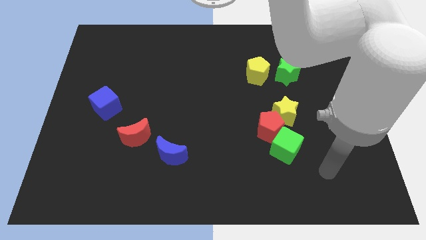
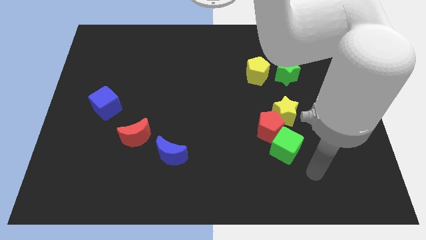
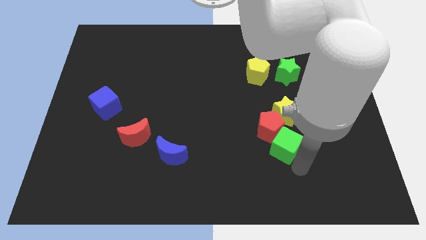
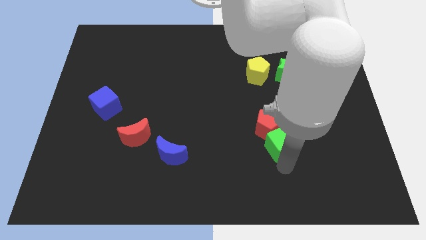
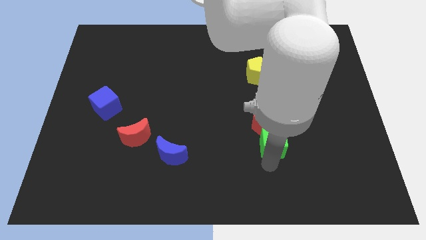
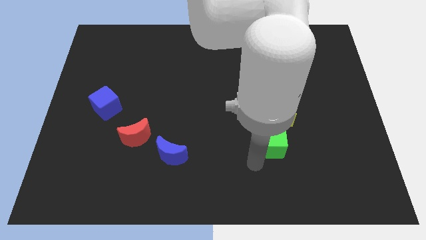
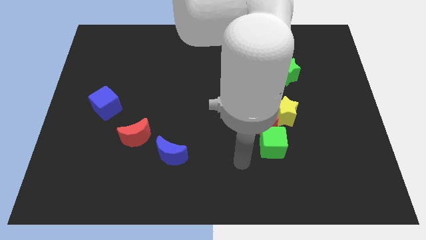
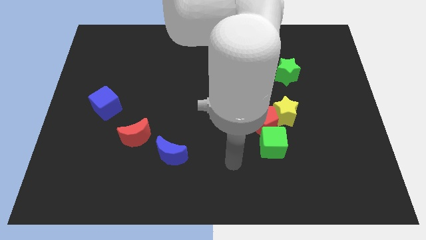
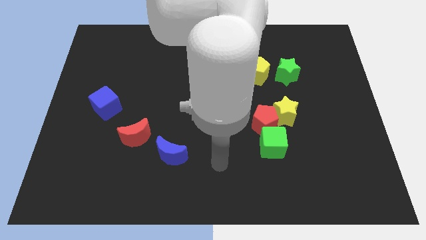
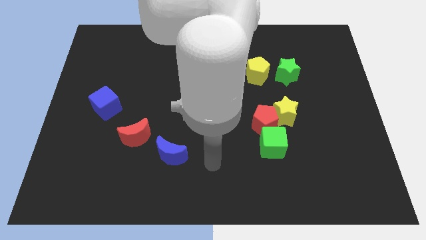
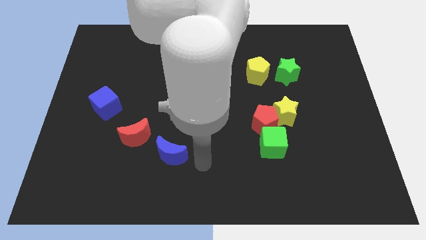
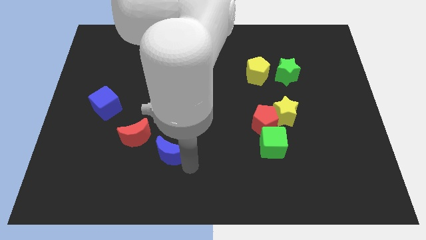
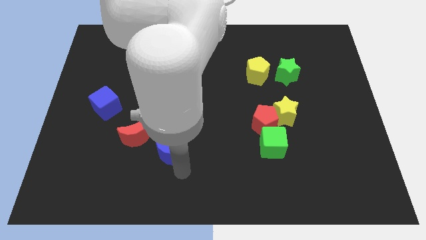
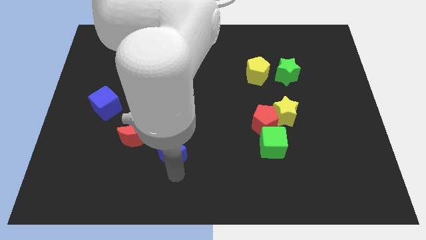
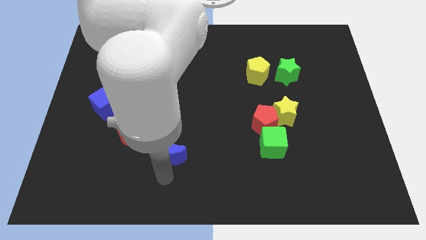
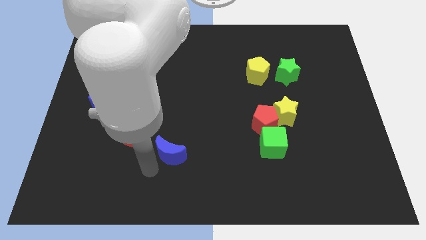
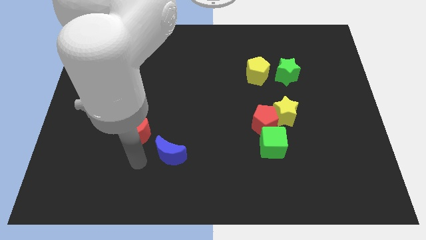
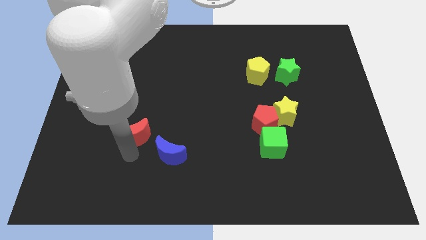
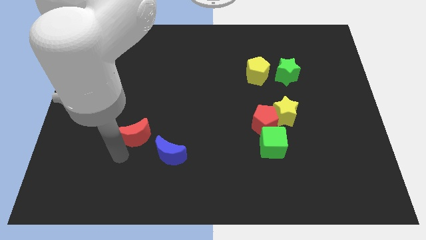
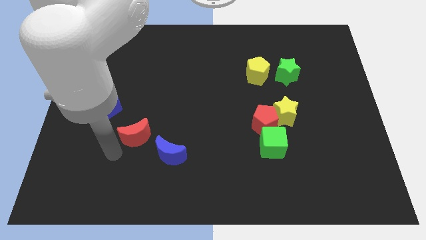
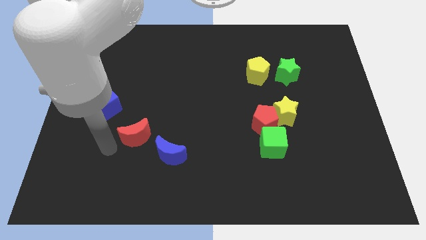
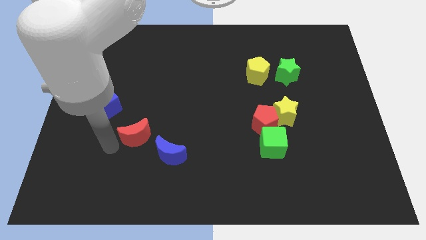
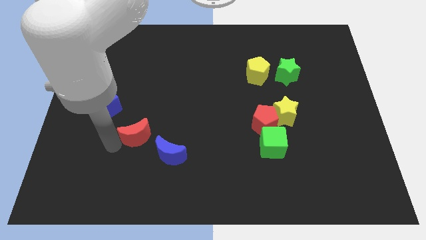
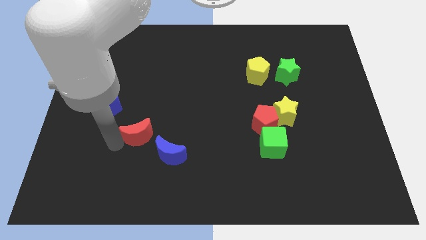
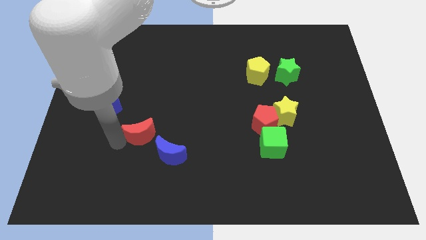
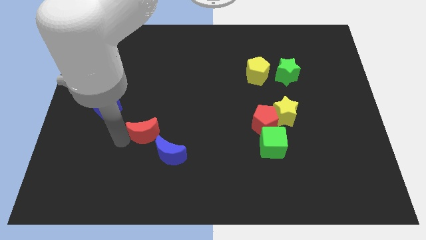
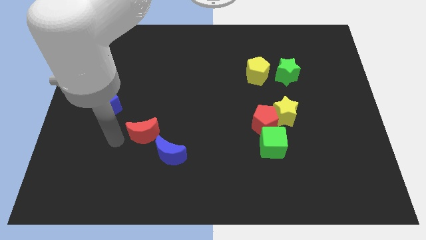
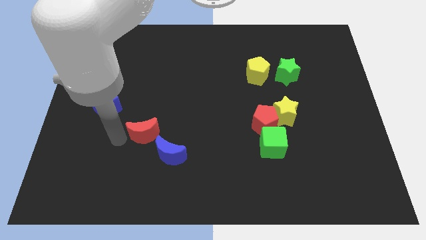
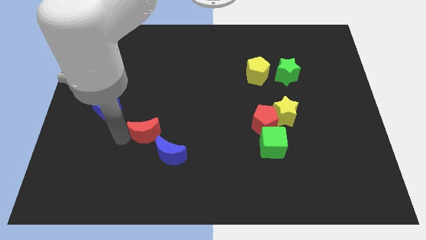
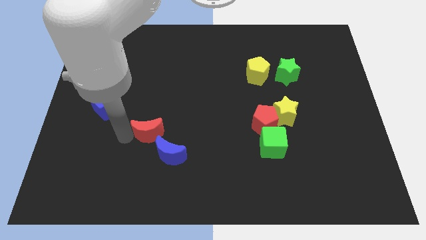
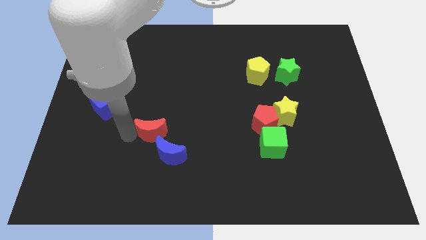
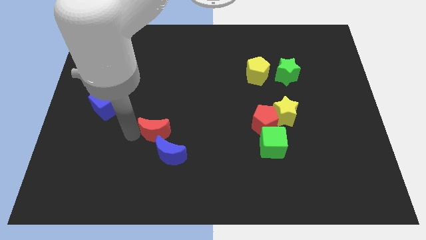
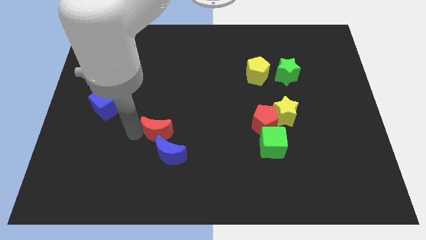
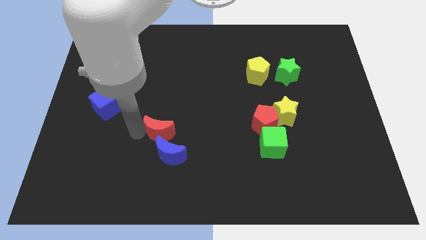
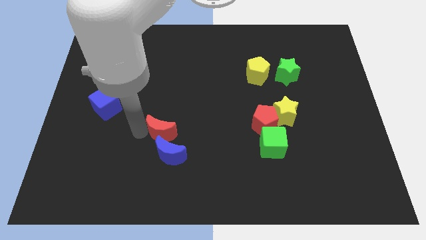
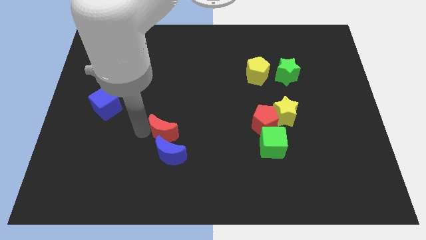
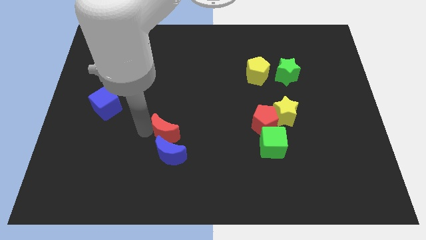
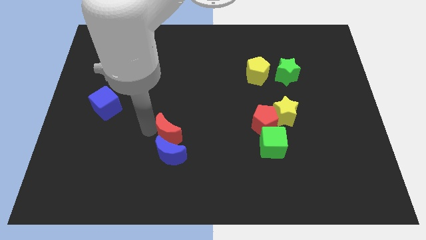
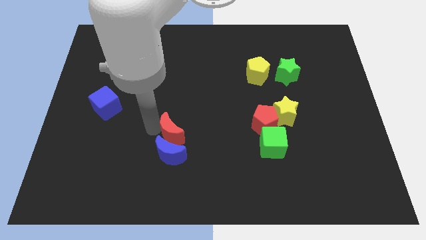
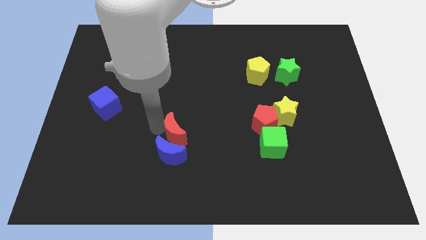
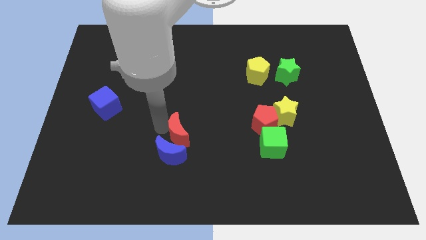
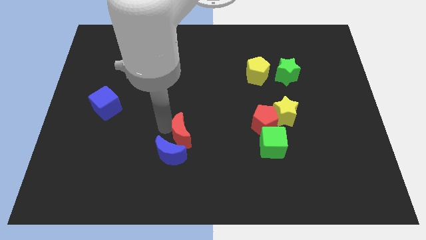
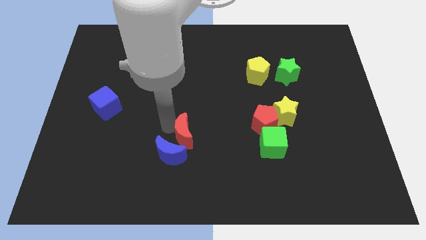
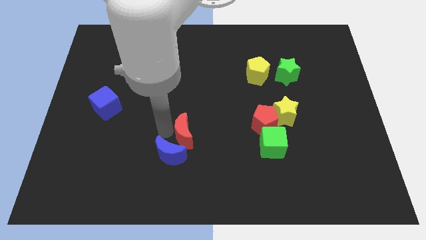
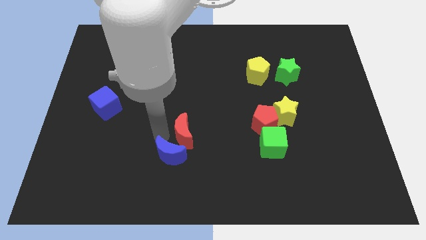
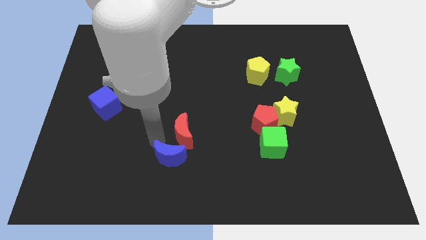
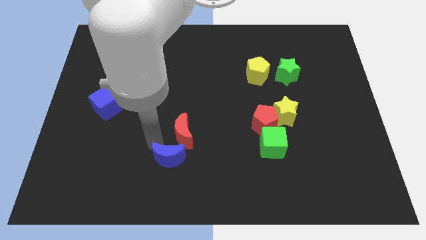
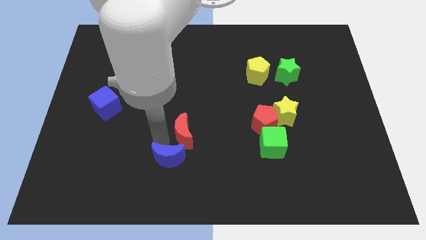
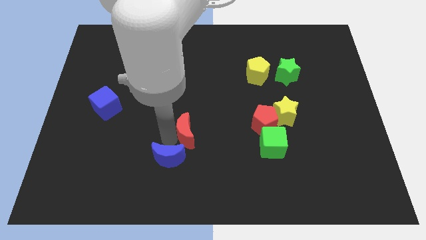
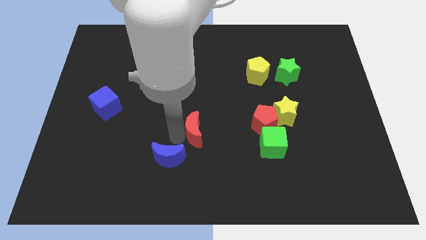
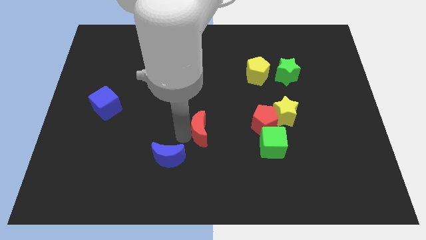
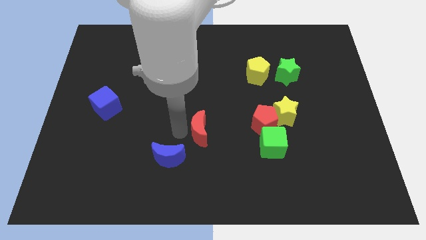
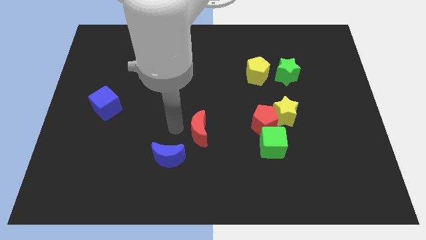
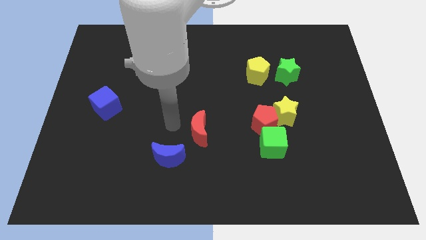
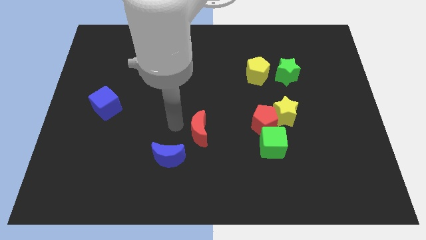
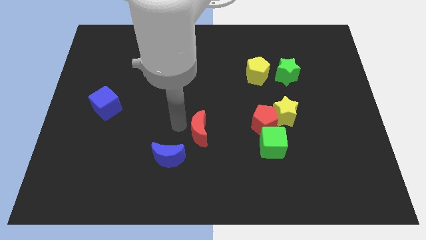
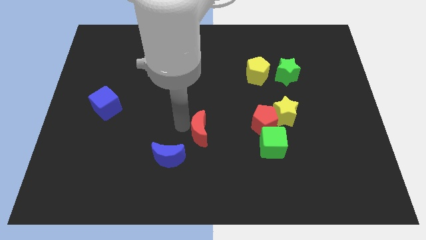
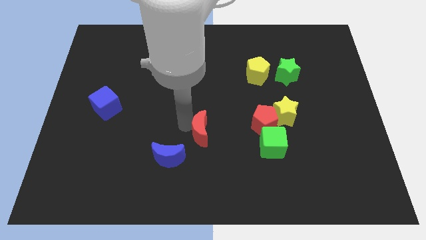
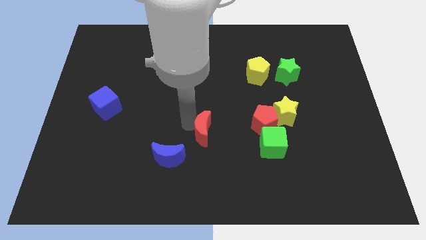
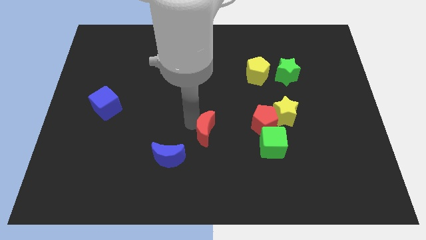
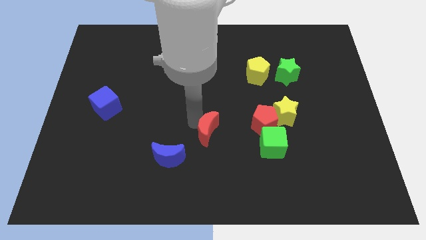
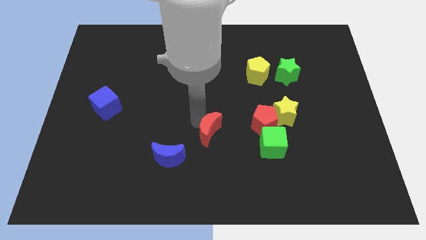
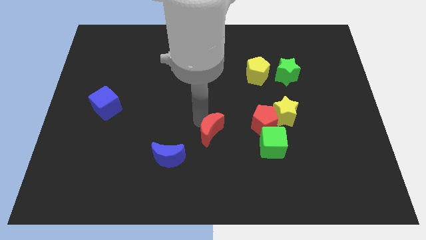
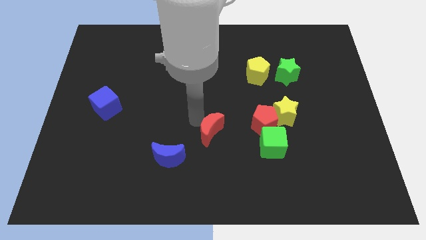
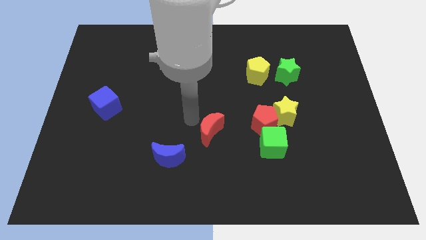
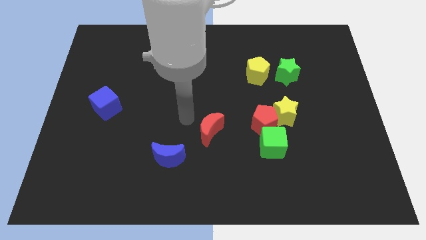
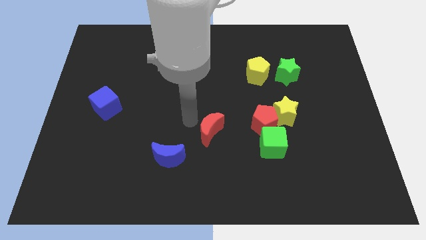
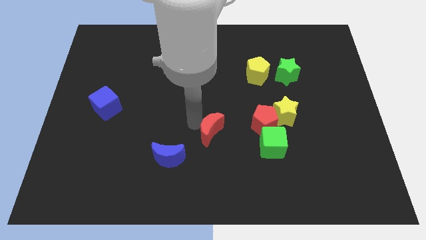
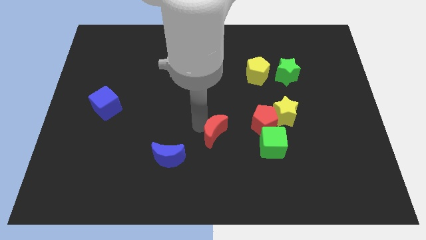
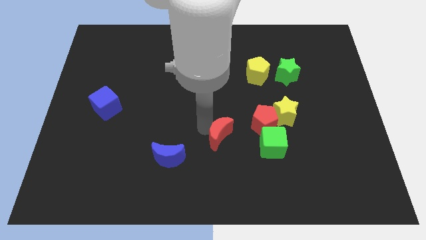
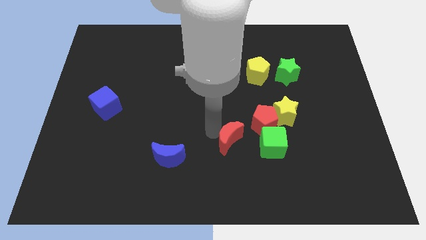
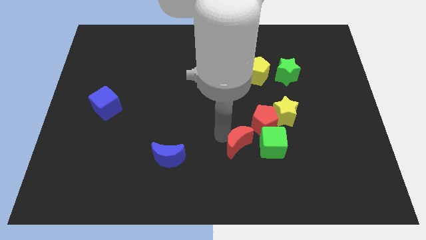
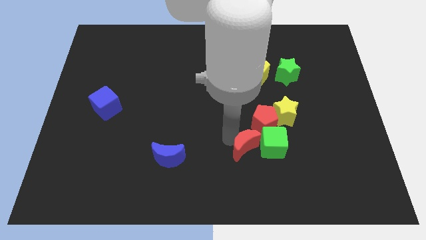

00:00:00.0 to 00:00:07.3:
put the red moon below the red pentagon

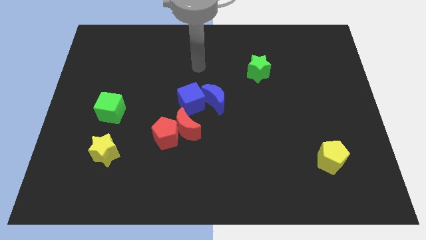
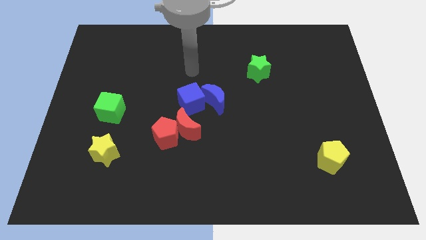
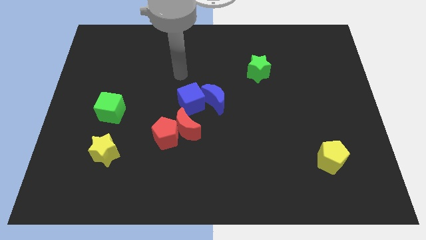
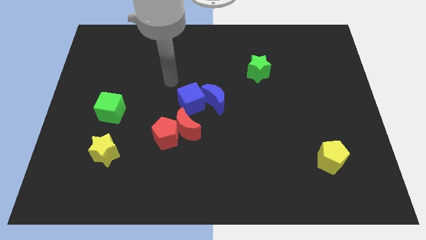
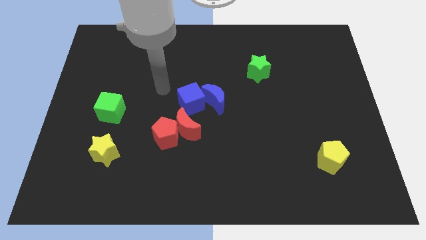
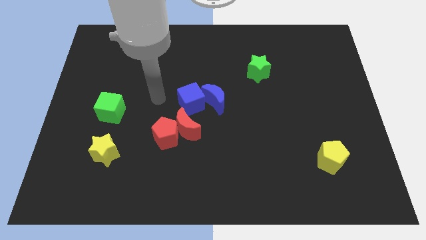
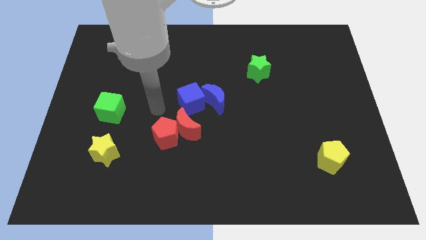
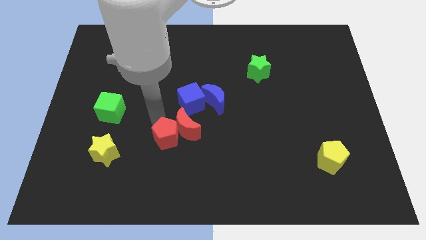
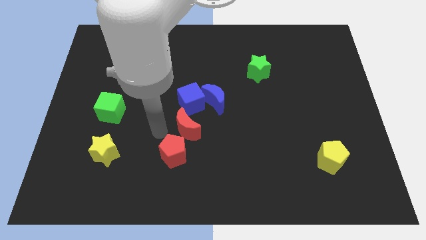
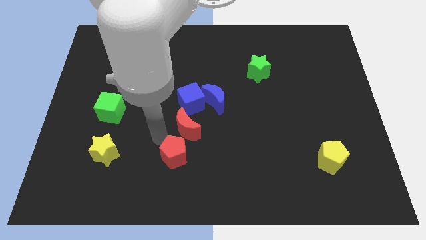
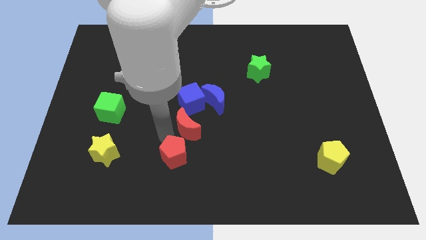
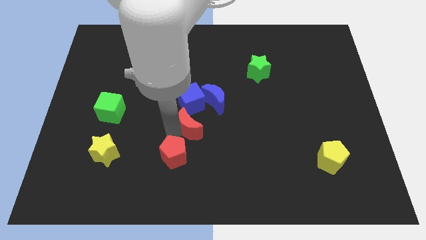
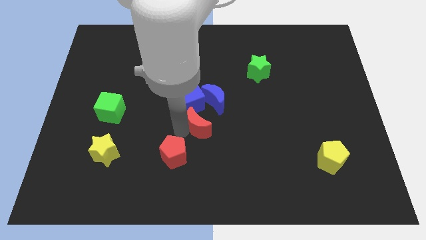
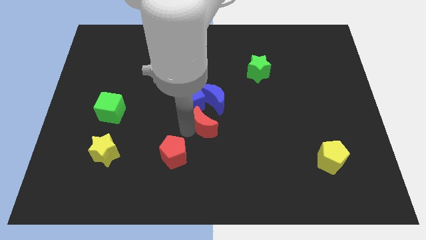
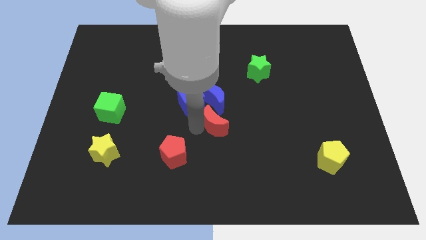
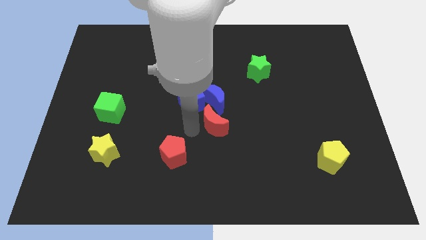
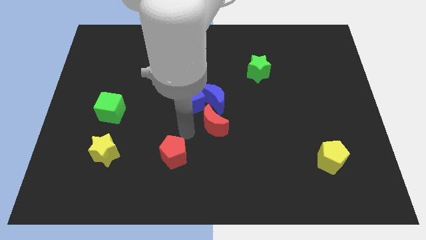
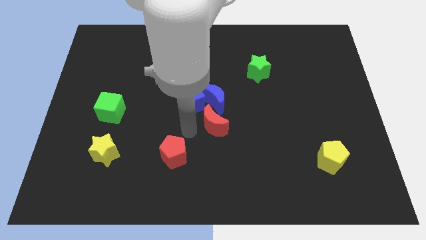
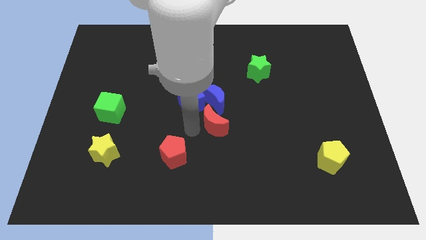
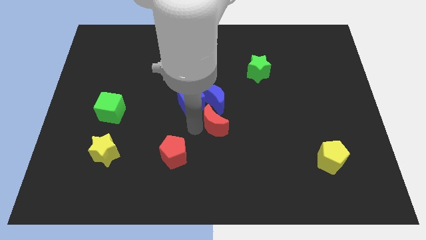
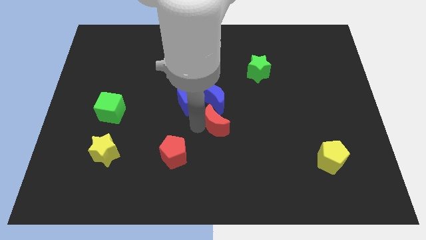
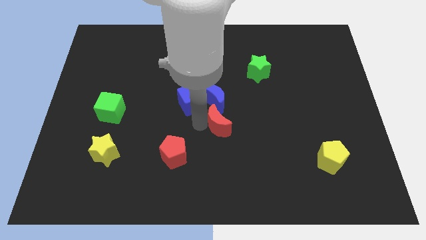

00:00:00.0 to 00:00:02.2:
push the red moon to the bottom right side of the blue moon
